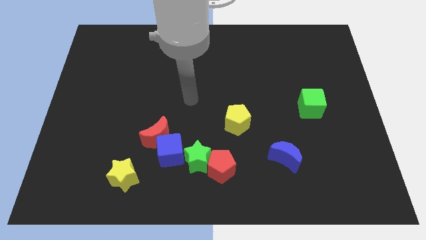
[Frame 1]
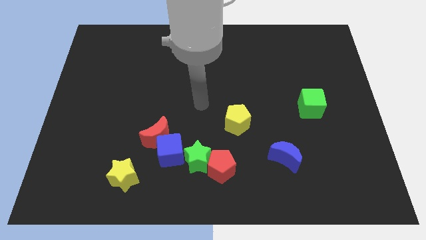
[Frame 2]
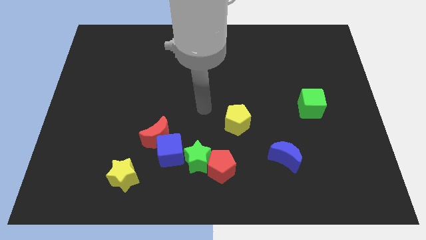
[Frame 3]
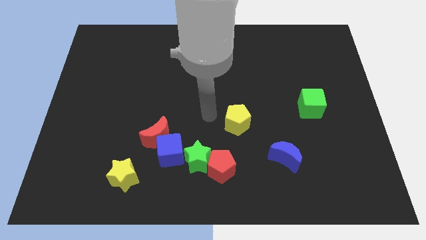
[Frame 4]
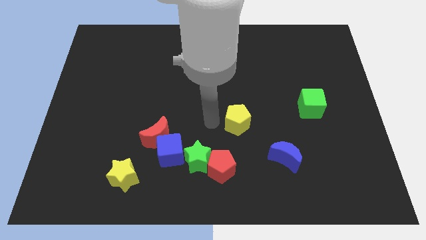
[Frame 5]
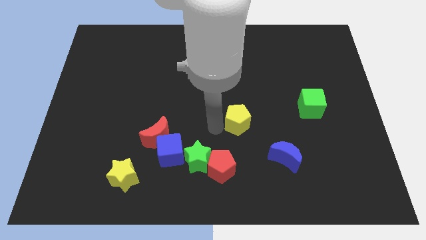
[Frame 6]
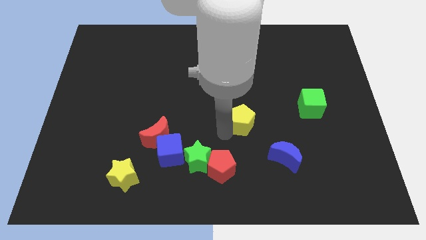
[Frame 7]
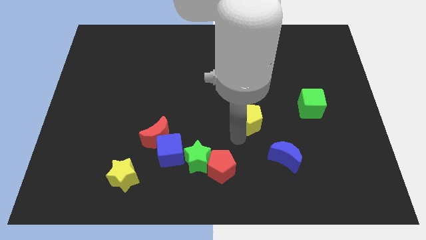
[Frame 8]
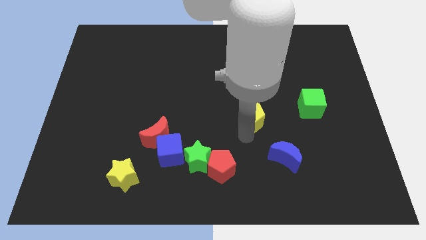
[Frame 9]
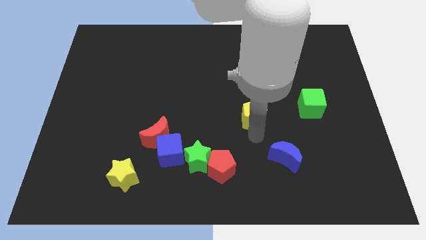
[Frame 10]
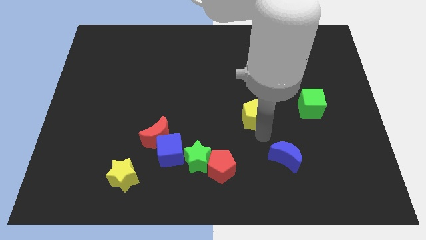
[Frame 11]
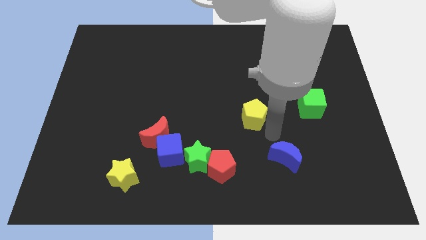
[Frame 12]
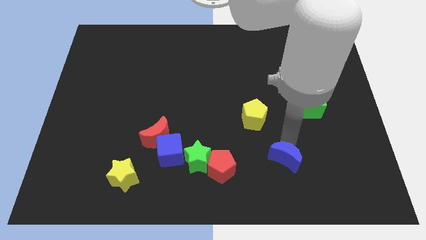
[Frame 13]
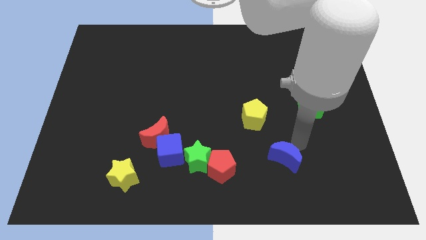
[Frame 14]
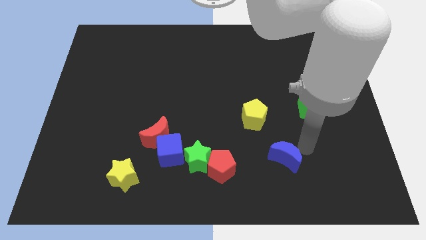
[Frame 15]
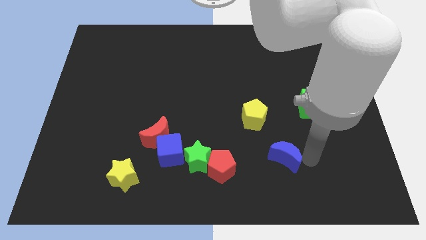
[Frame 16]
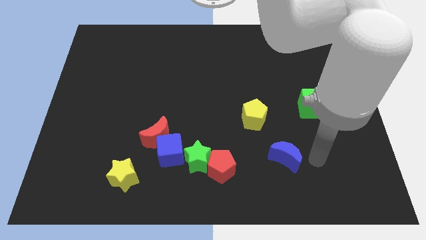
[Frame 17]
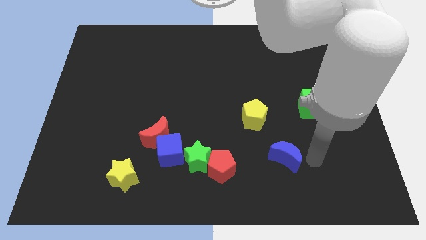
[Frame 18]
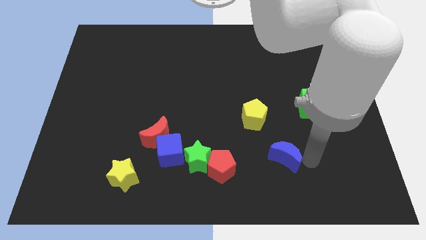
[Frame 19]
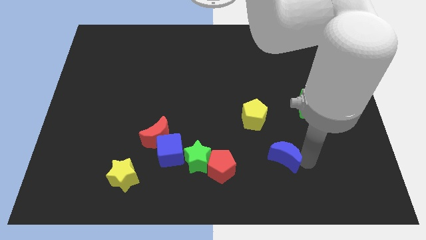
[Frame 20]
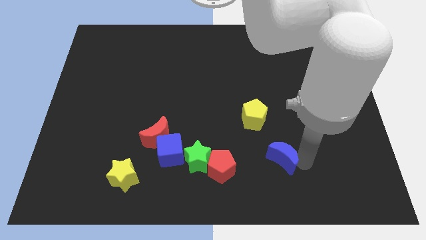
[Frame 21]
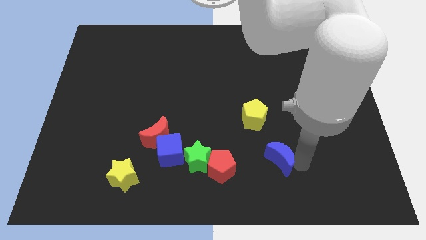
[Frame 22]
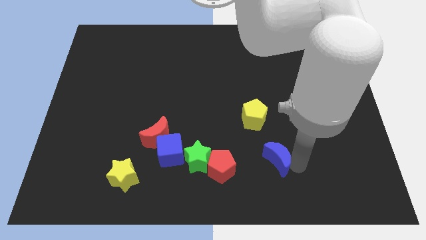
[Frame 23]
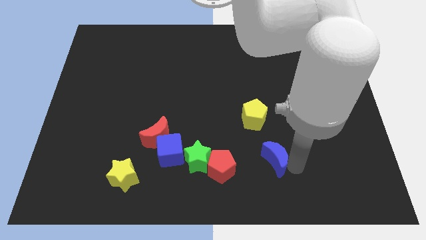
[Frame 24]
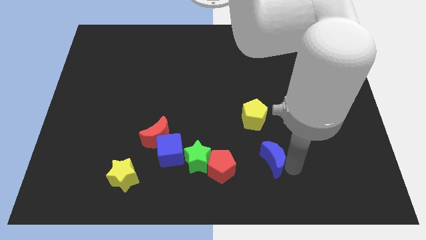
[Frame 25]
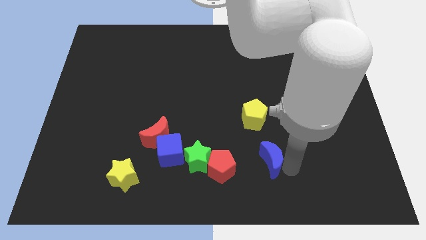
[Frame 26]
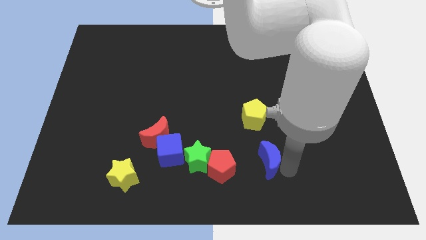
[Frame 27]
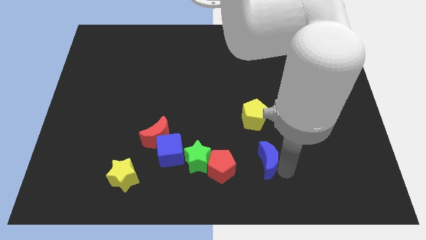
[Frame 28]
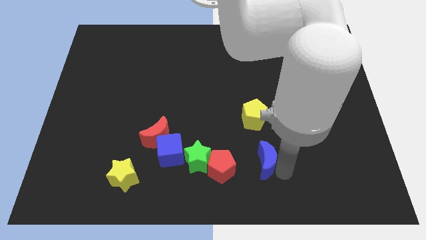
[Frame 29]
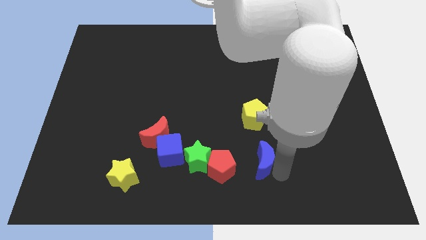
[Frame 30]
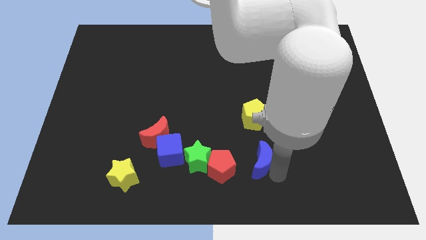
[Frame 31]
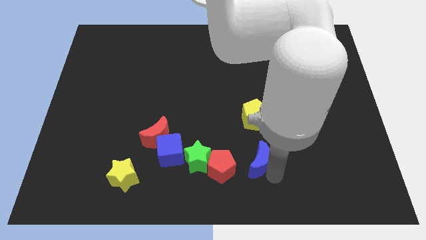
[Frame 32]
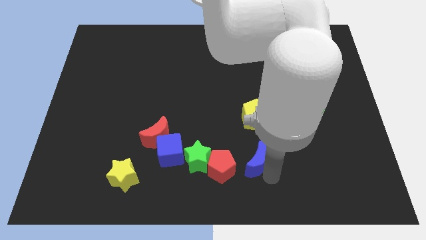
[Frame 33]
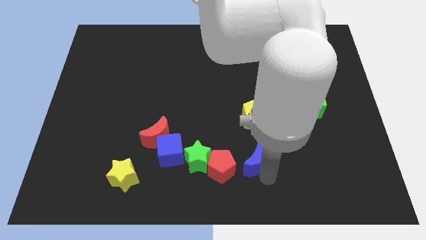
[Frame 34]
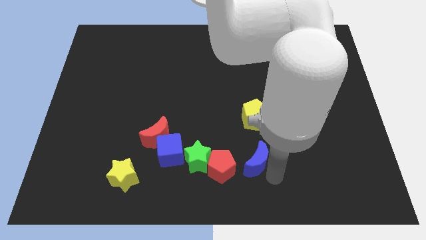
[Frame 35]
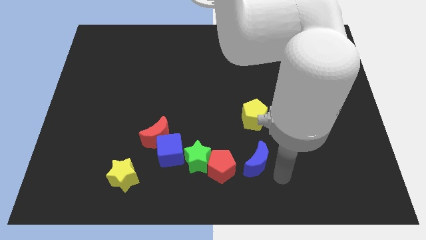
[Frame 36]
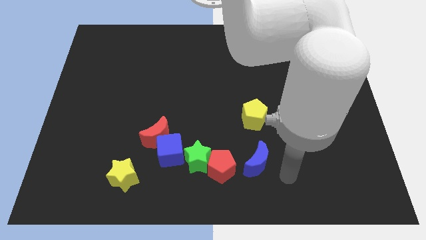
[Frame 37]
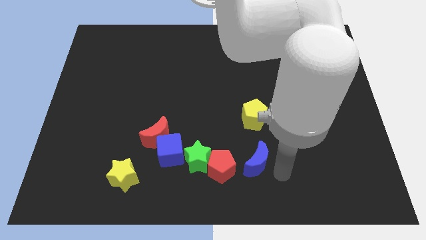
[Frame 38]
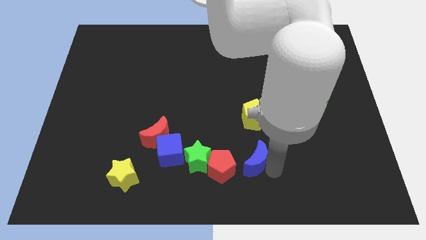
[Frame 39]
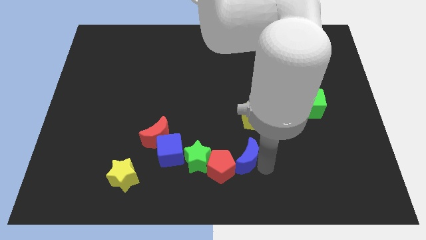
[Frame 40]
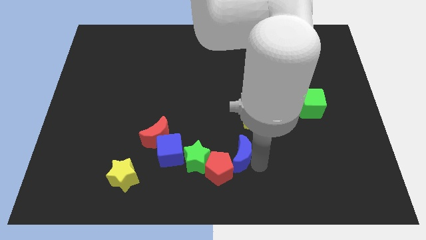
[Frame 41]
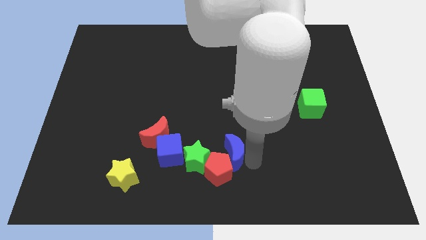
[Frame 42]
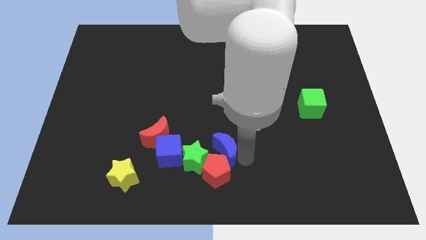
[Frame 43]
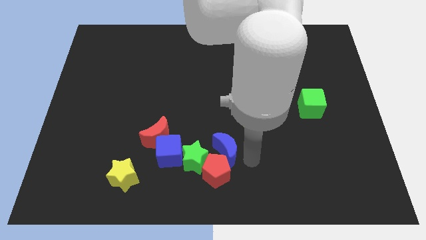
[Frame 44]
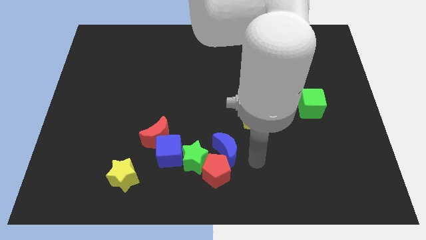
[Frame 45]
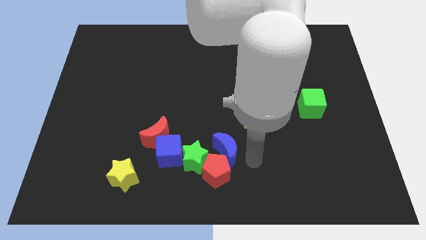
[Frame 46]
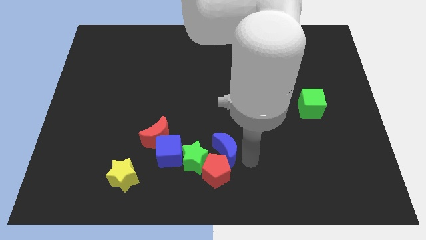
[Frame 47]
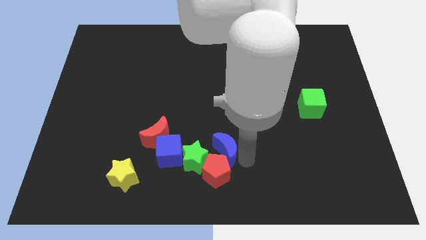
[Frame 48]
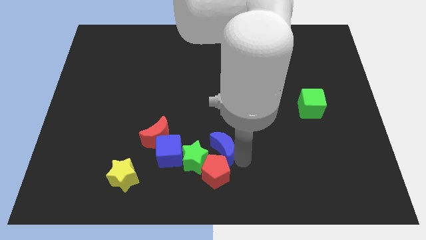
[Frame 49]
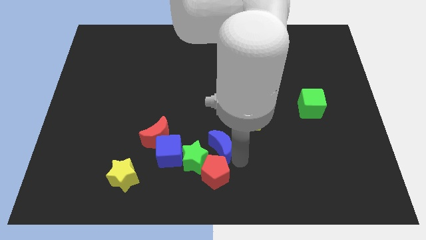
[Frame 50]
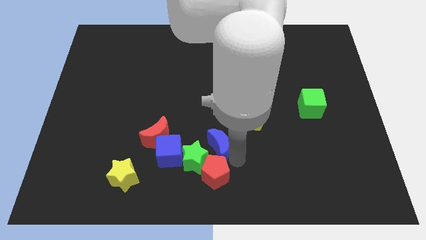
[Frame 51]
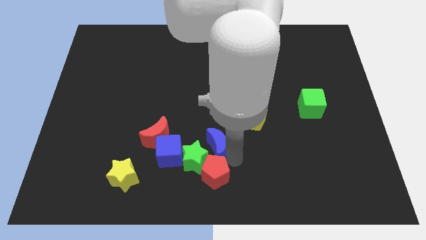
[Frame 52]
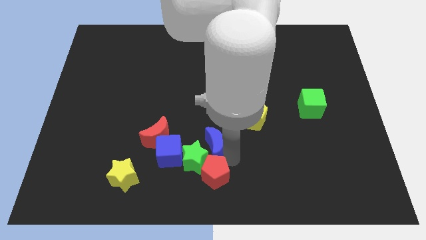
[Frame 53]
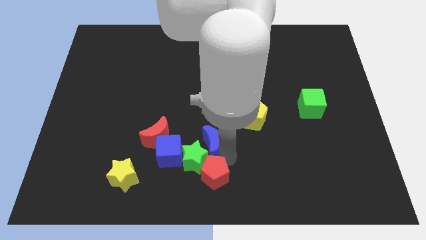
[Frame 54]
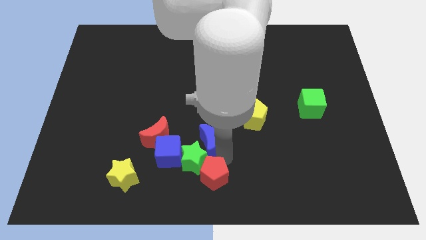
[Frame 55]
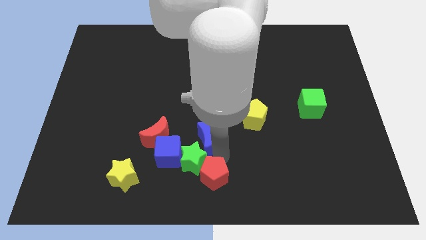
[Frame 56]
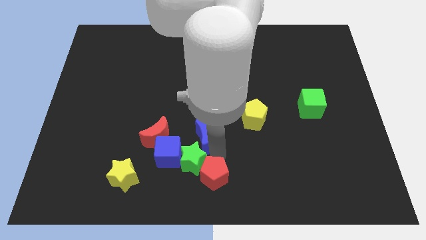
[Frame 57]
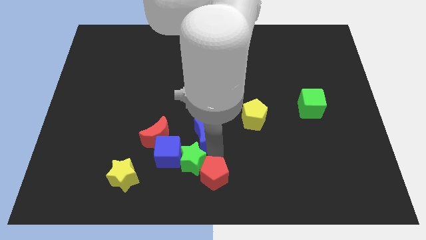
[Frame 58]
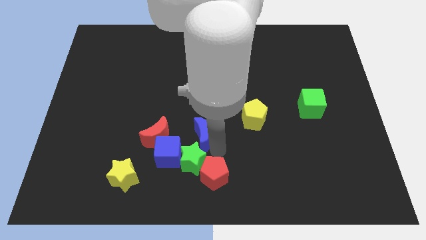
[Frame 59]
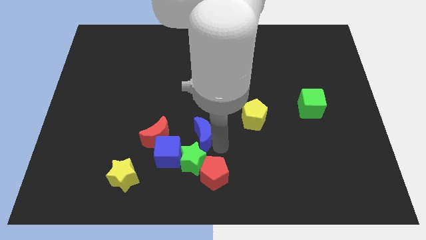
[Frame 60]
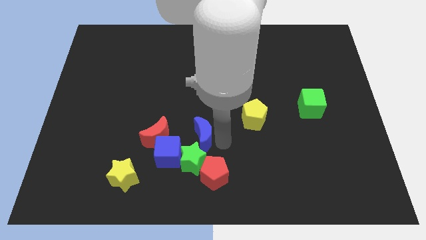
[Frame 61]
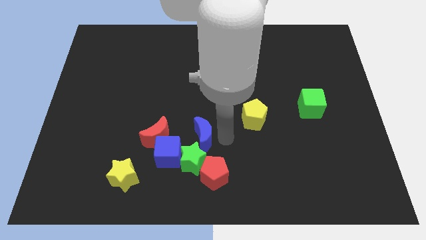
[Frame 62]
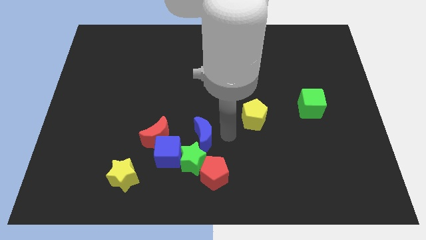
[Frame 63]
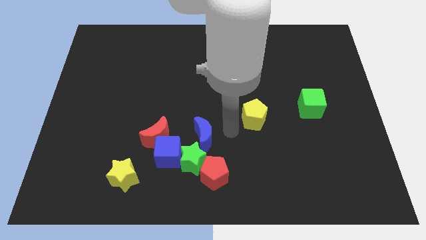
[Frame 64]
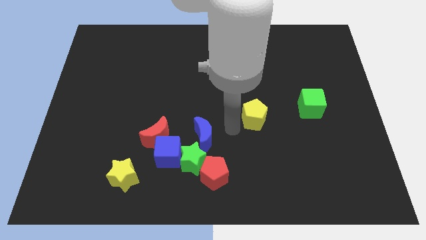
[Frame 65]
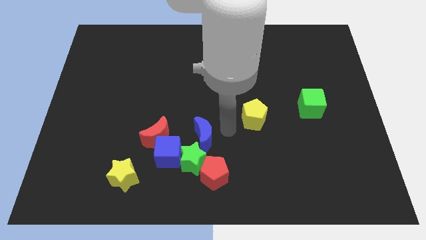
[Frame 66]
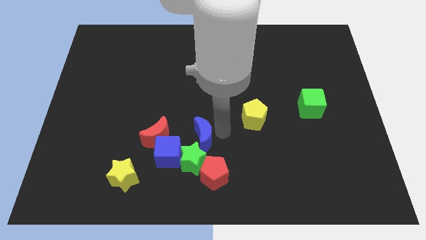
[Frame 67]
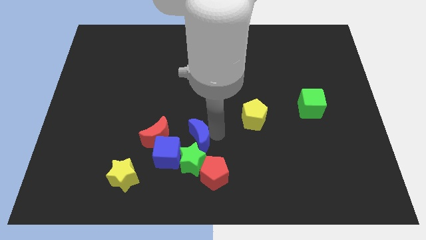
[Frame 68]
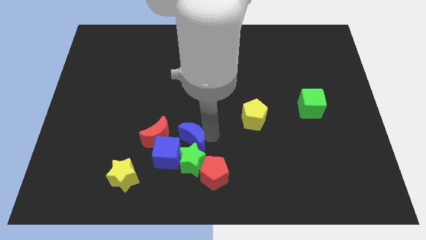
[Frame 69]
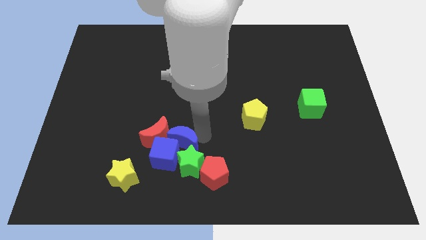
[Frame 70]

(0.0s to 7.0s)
put the blue moon towards the blue cube

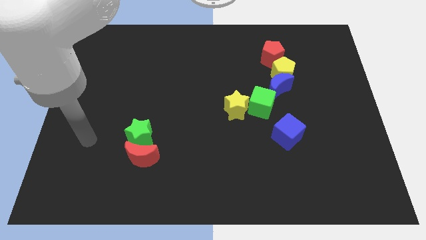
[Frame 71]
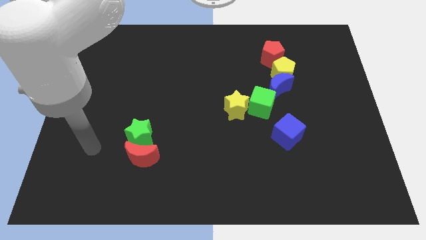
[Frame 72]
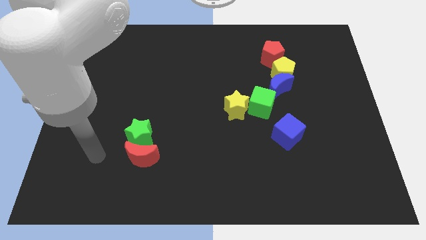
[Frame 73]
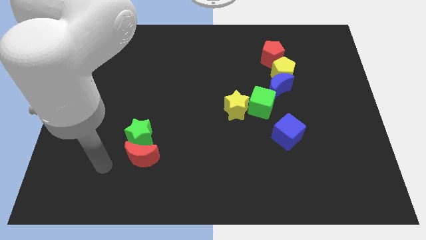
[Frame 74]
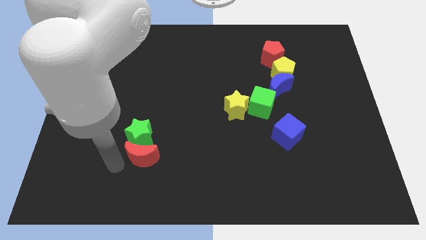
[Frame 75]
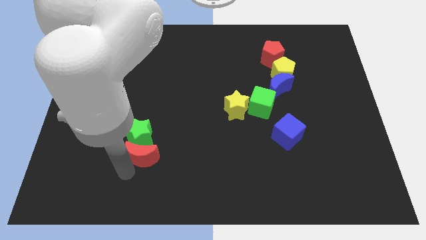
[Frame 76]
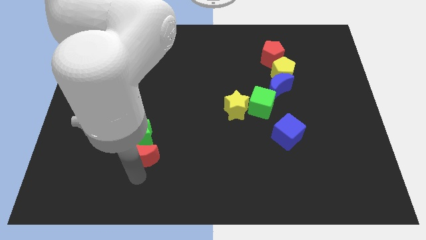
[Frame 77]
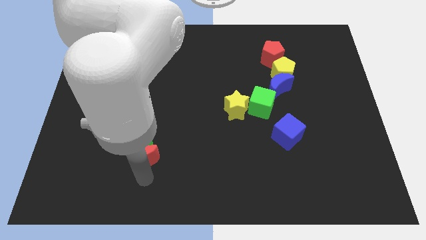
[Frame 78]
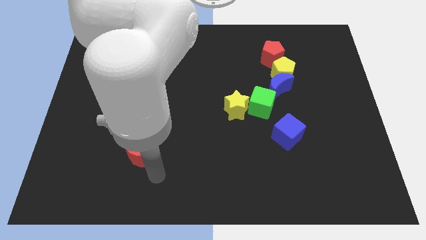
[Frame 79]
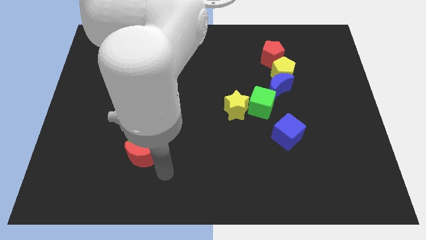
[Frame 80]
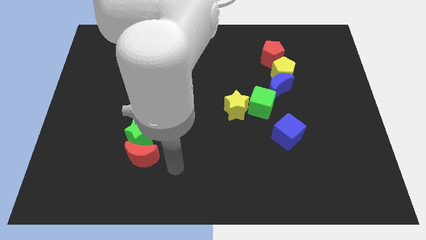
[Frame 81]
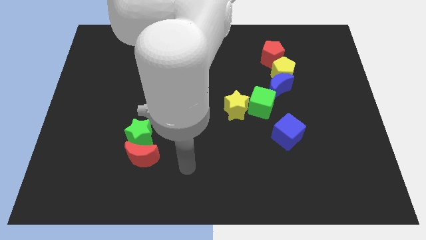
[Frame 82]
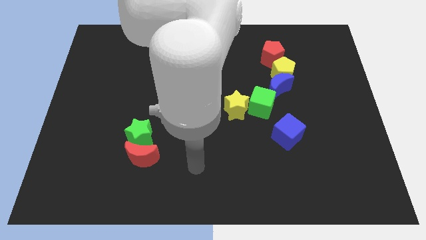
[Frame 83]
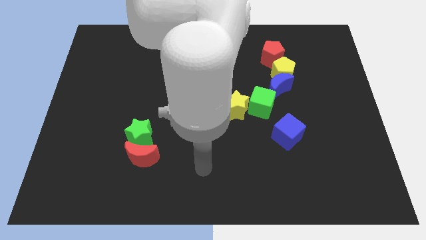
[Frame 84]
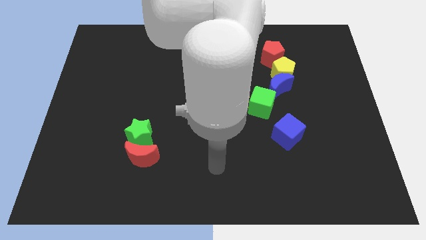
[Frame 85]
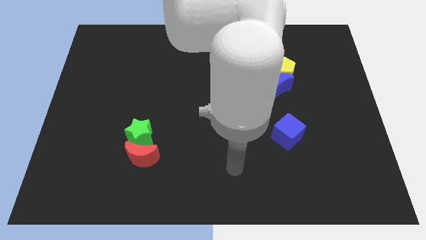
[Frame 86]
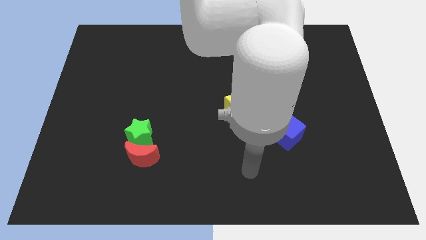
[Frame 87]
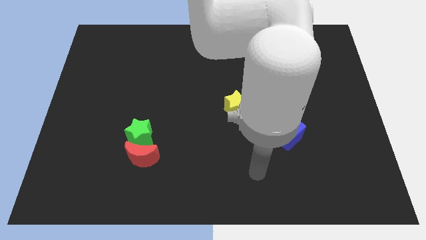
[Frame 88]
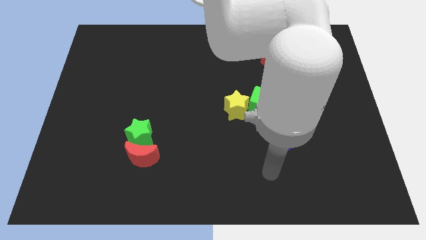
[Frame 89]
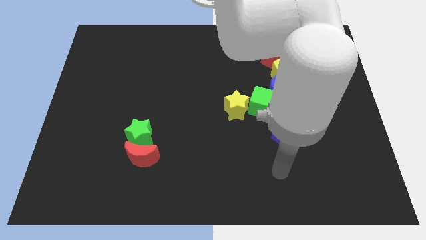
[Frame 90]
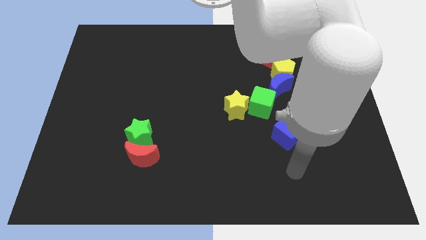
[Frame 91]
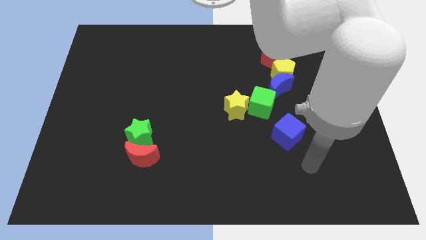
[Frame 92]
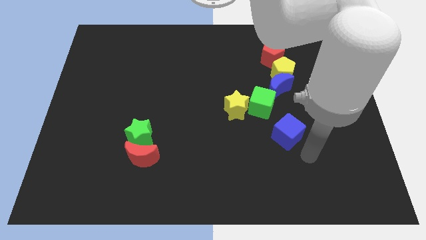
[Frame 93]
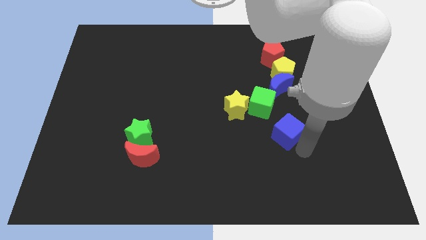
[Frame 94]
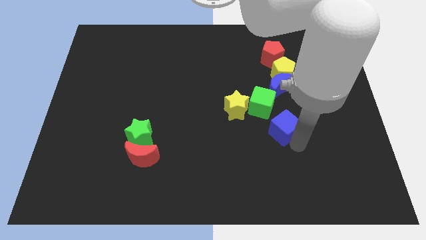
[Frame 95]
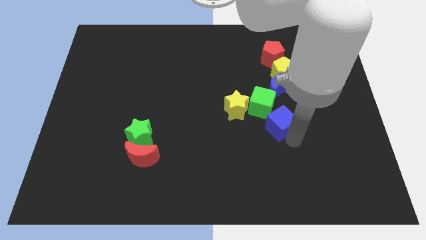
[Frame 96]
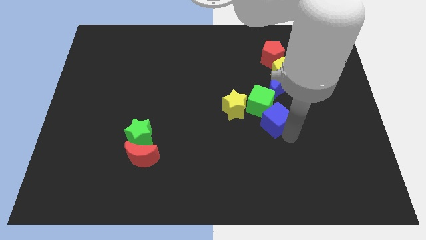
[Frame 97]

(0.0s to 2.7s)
put the blue cube close to the green cube
